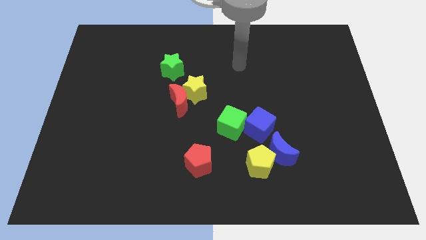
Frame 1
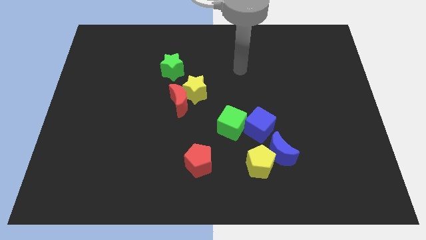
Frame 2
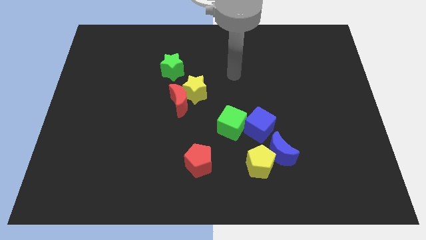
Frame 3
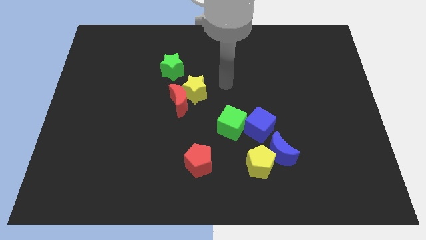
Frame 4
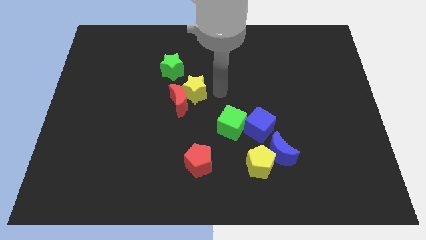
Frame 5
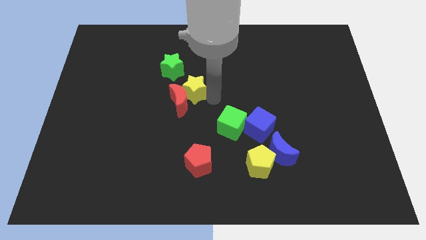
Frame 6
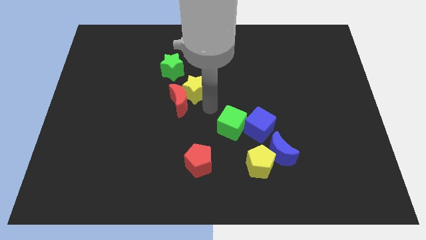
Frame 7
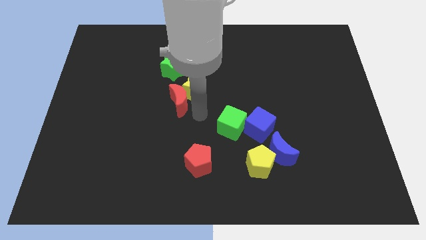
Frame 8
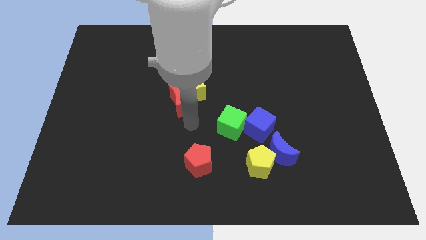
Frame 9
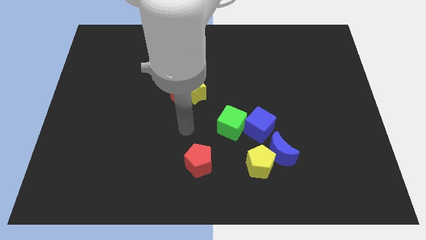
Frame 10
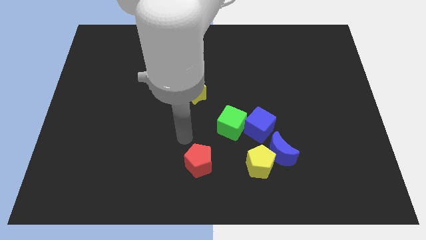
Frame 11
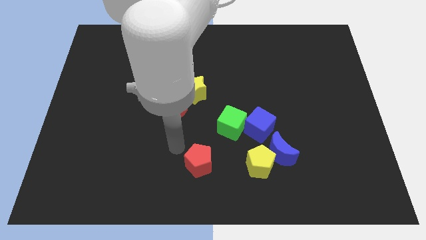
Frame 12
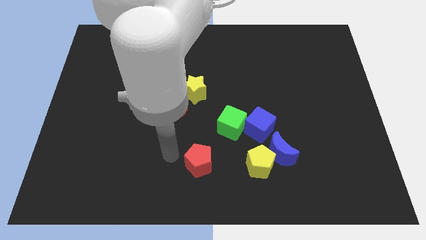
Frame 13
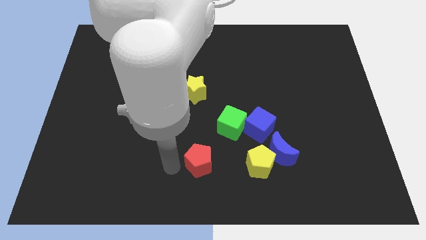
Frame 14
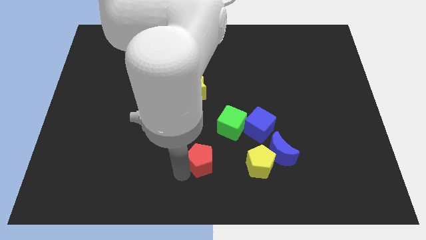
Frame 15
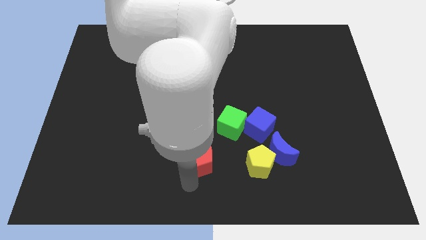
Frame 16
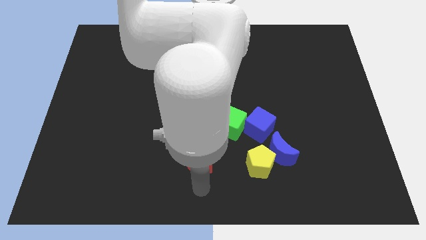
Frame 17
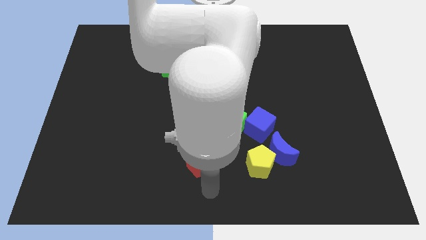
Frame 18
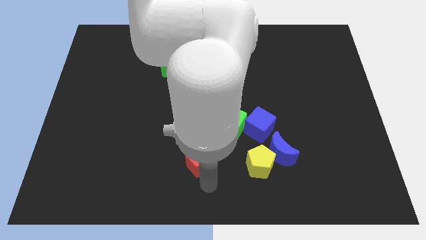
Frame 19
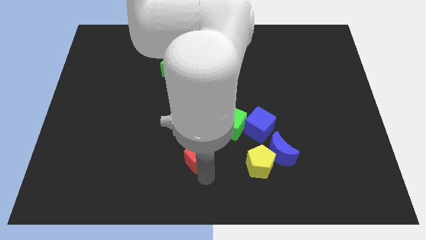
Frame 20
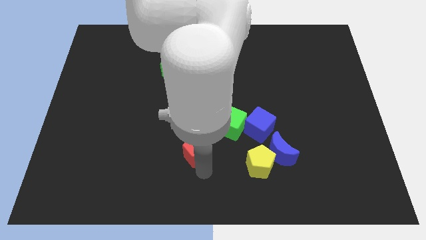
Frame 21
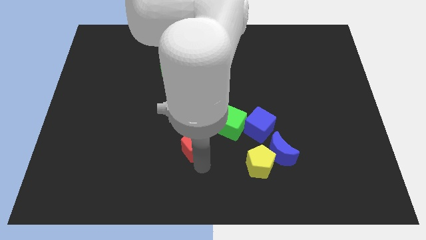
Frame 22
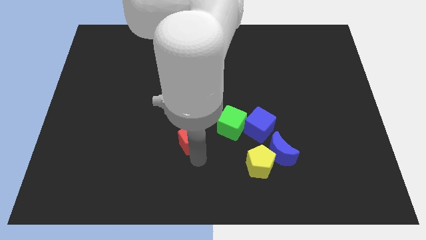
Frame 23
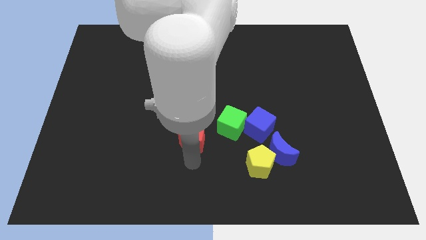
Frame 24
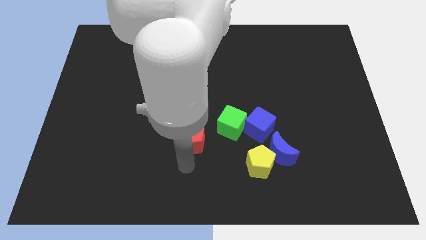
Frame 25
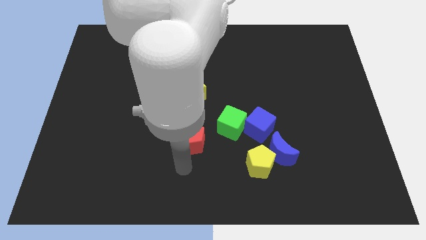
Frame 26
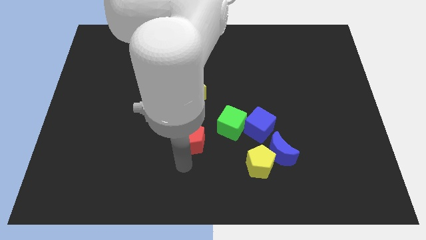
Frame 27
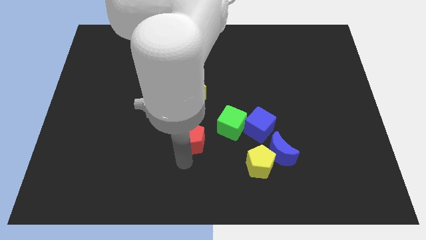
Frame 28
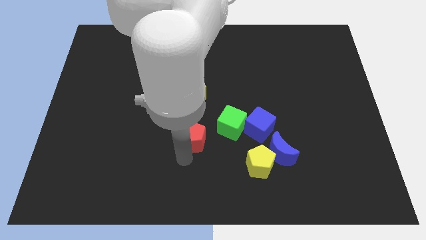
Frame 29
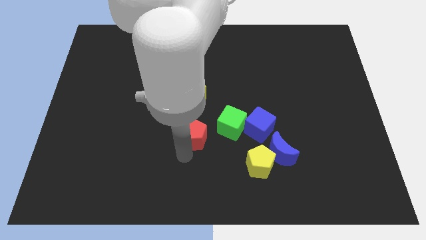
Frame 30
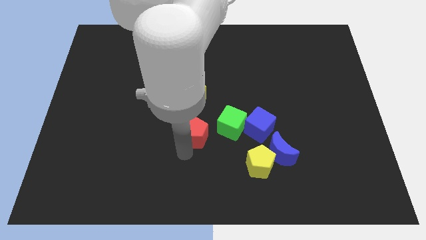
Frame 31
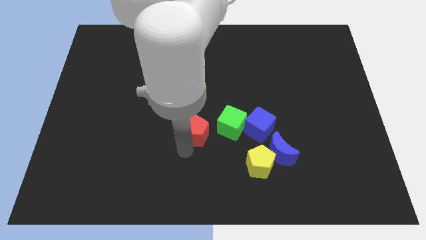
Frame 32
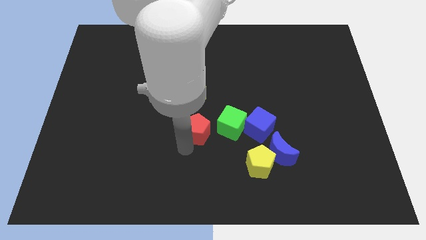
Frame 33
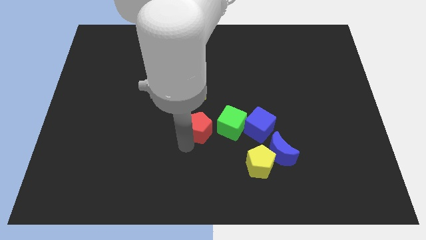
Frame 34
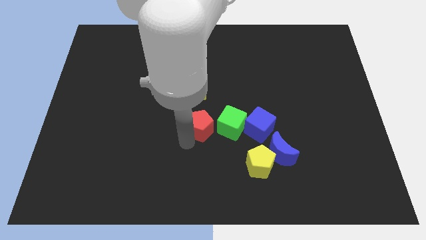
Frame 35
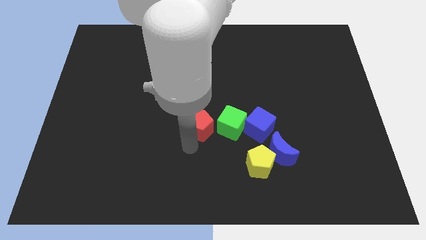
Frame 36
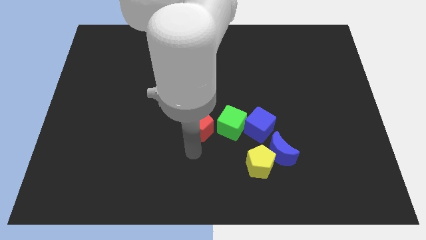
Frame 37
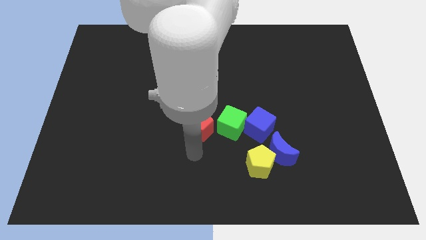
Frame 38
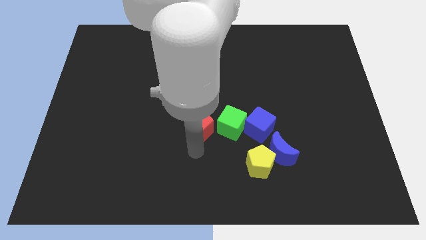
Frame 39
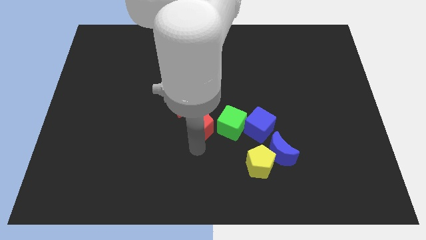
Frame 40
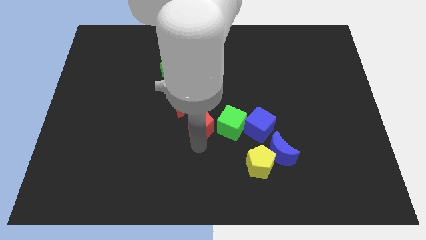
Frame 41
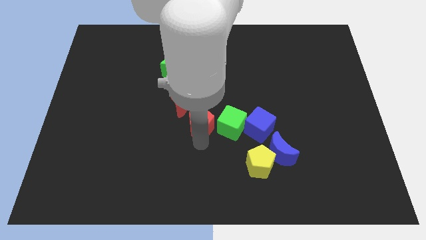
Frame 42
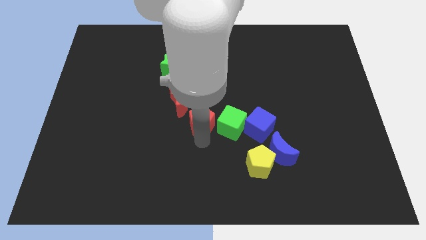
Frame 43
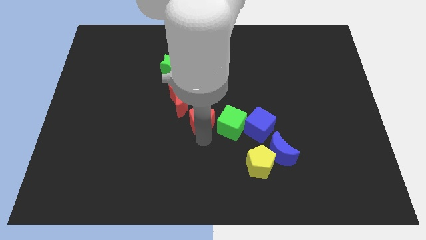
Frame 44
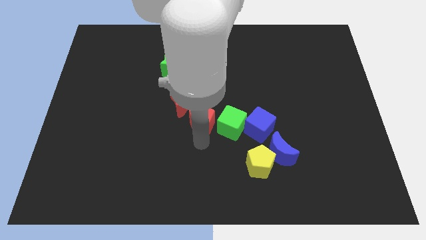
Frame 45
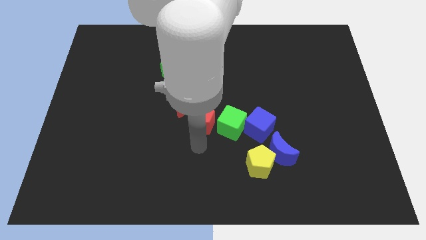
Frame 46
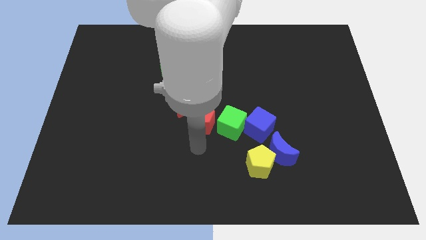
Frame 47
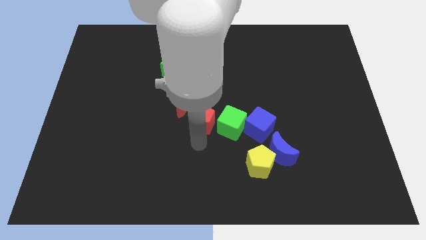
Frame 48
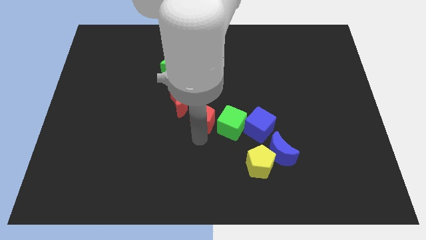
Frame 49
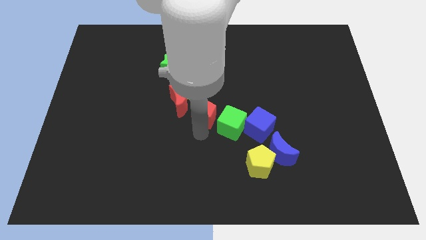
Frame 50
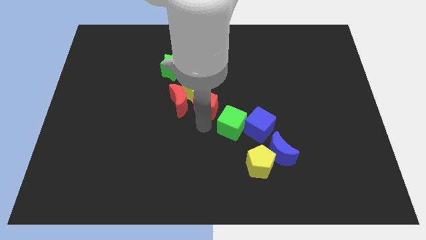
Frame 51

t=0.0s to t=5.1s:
put the red pentagon to the yellow star

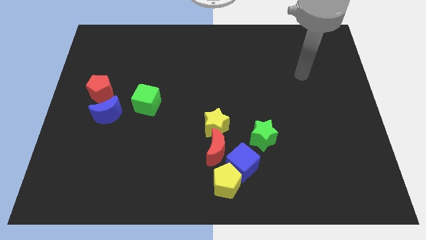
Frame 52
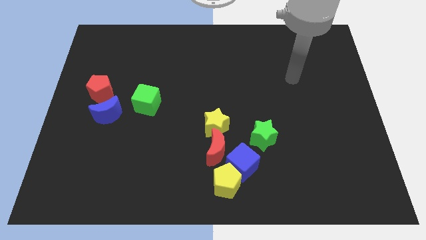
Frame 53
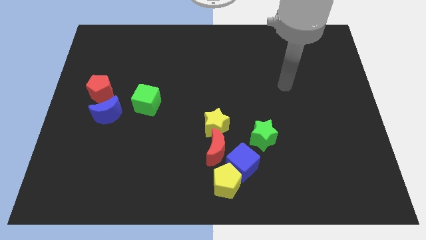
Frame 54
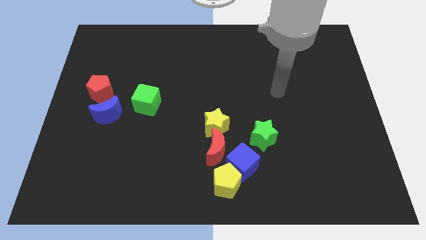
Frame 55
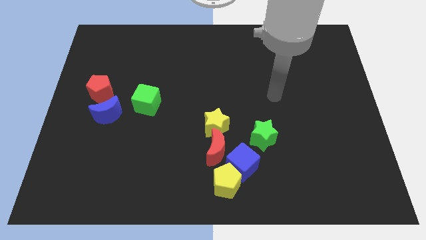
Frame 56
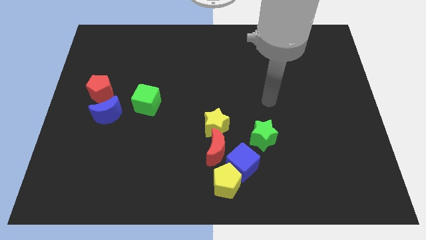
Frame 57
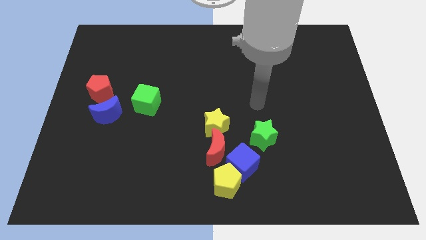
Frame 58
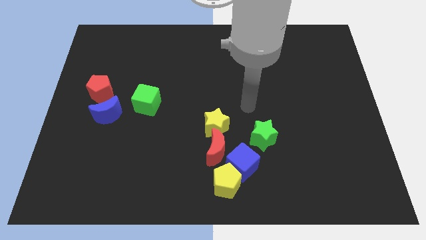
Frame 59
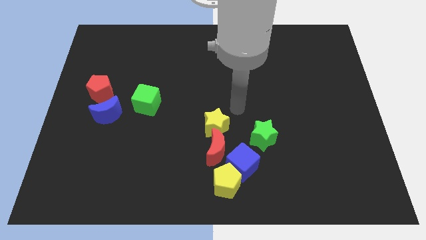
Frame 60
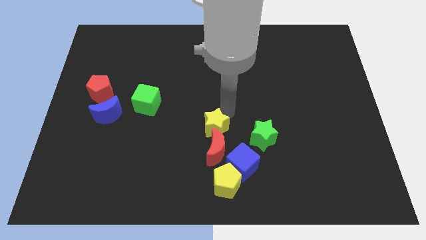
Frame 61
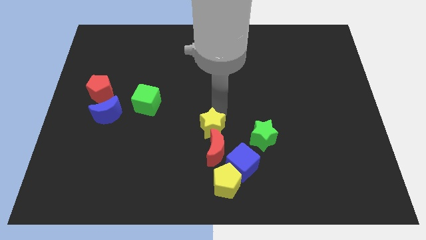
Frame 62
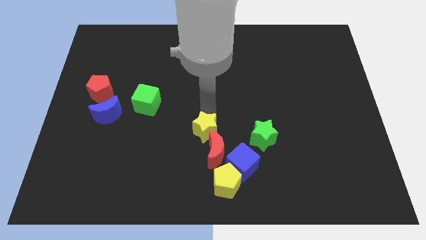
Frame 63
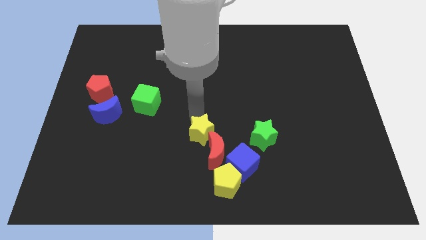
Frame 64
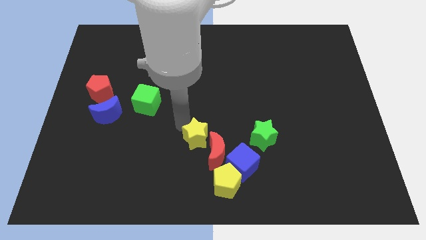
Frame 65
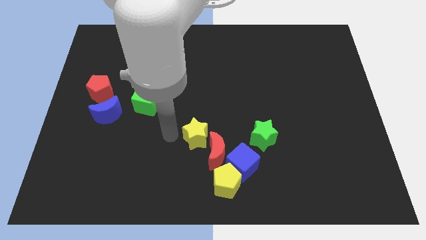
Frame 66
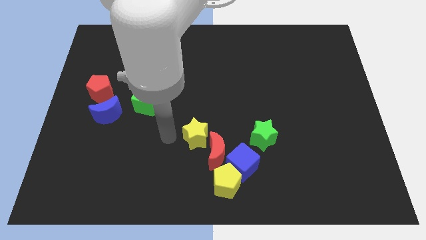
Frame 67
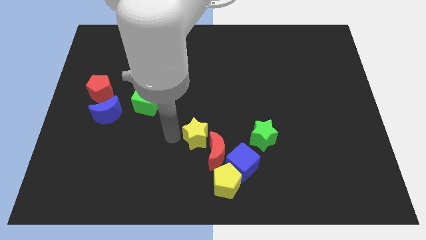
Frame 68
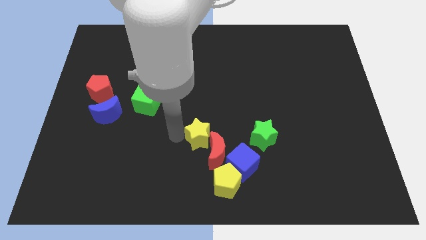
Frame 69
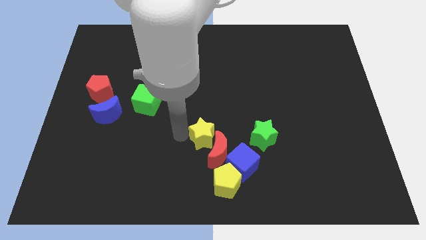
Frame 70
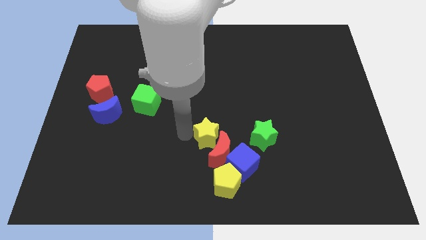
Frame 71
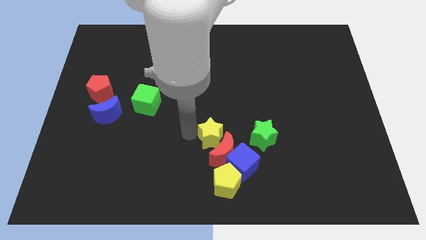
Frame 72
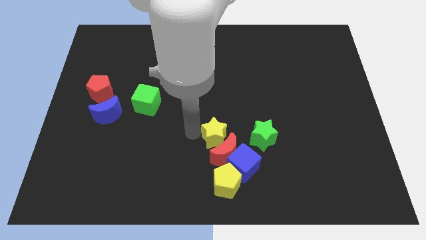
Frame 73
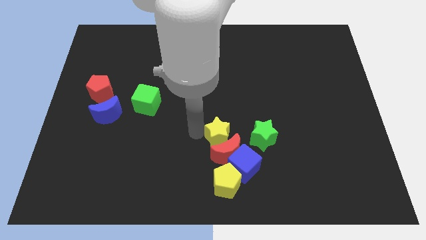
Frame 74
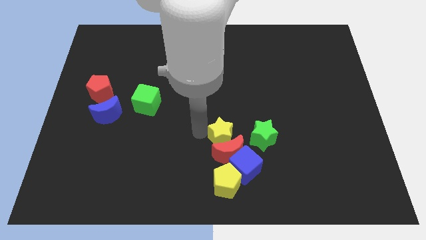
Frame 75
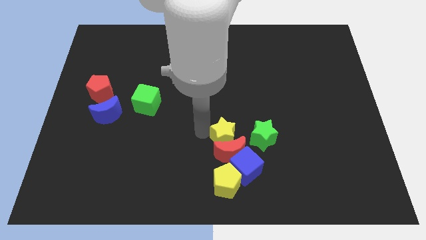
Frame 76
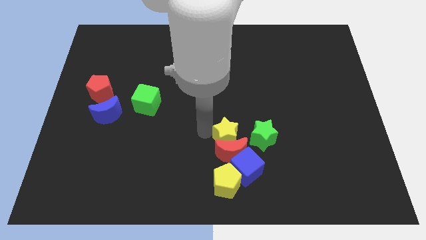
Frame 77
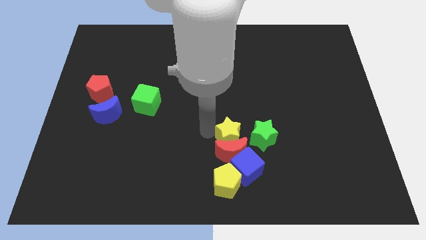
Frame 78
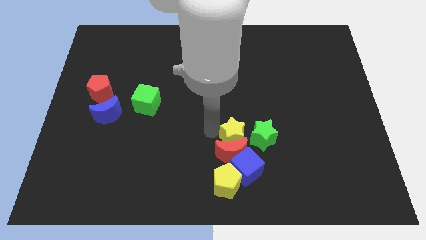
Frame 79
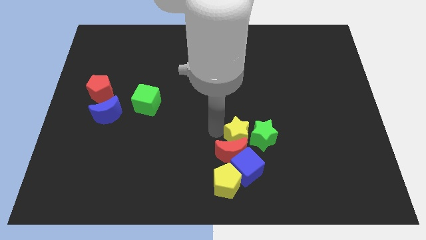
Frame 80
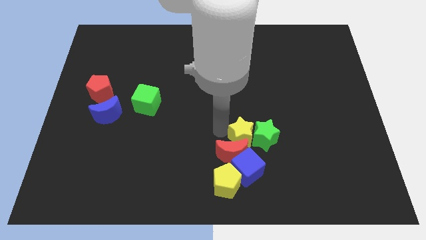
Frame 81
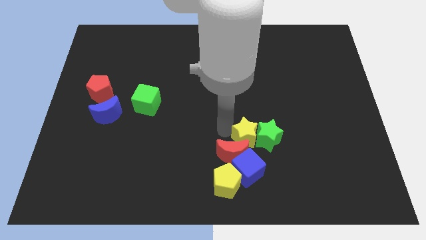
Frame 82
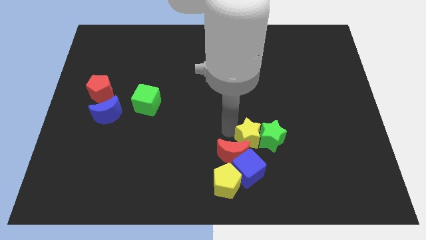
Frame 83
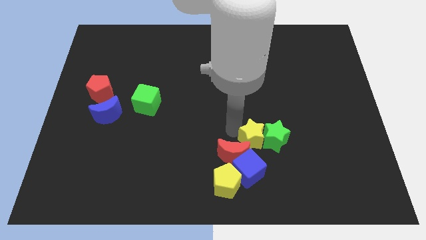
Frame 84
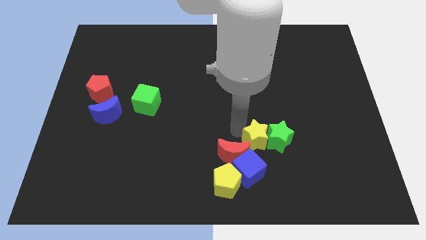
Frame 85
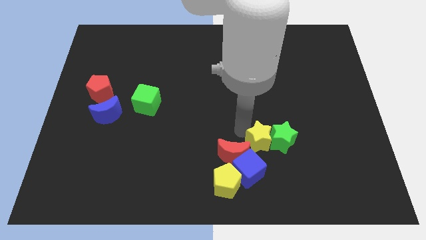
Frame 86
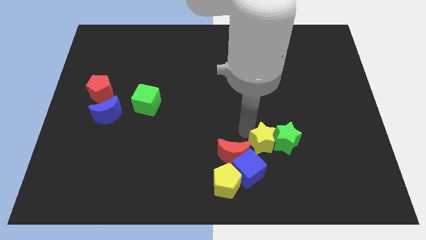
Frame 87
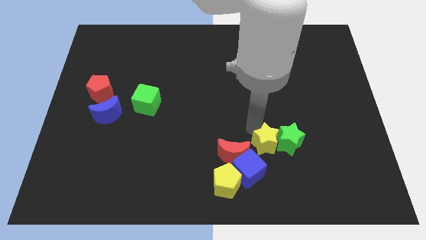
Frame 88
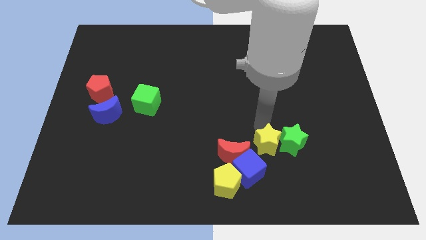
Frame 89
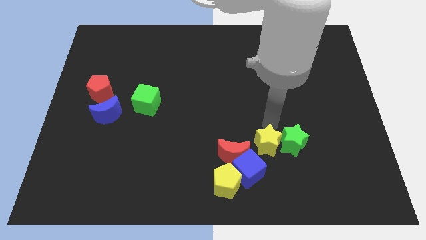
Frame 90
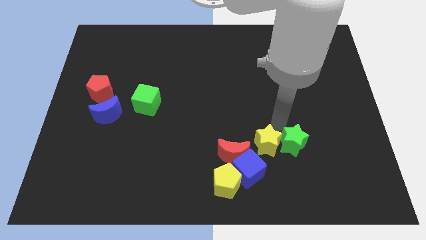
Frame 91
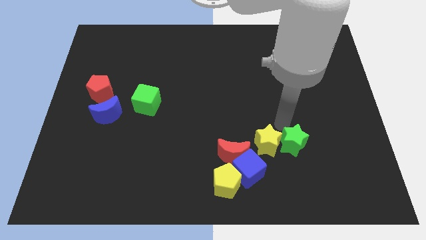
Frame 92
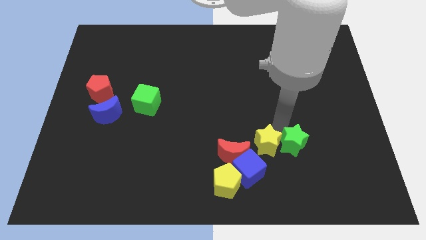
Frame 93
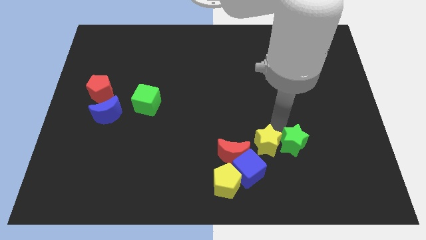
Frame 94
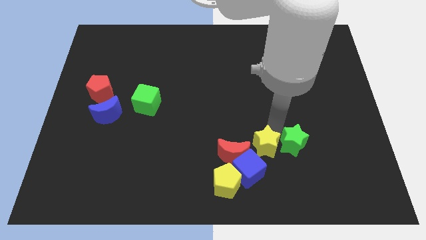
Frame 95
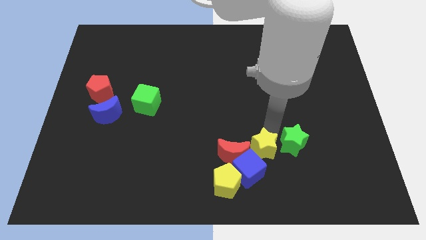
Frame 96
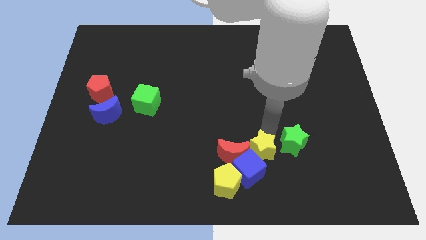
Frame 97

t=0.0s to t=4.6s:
push the yellow star towards the blue cube
